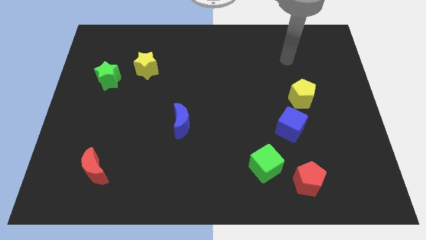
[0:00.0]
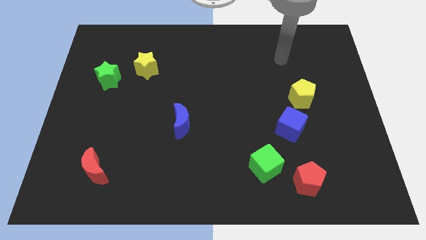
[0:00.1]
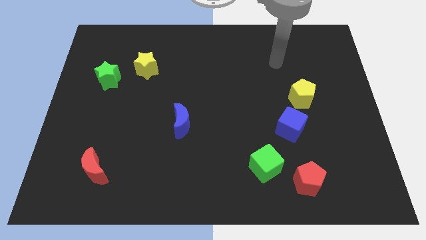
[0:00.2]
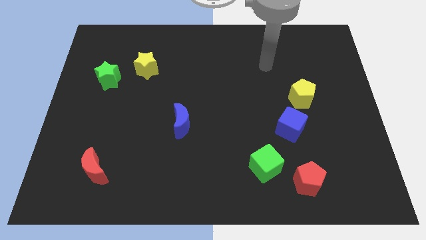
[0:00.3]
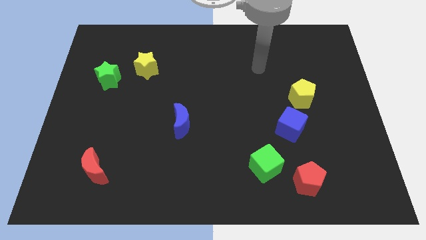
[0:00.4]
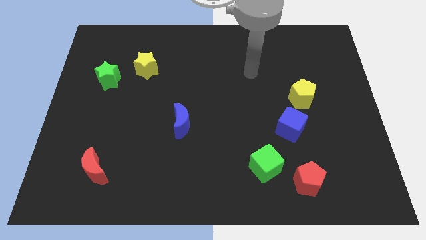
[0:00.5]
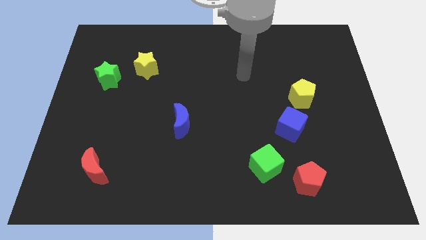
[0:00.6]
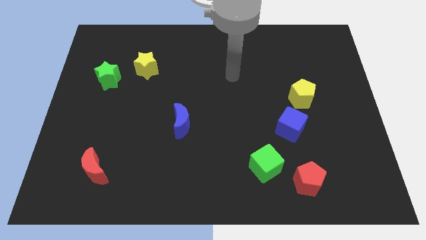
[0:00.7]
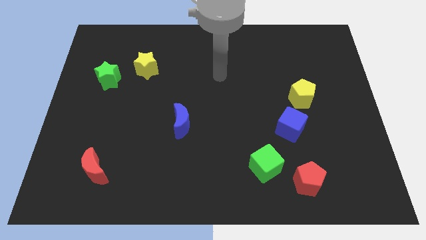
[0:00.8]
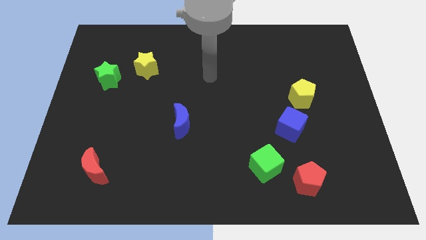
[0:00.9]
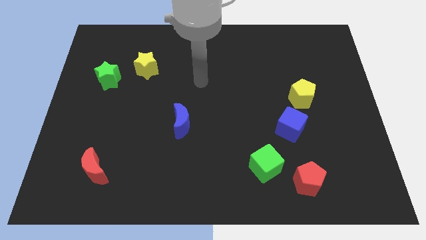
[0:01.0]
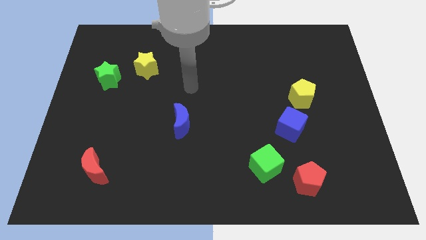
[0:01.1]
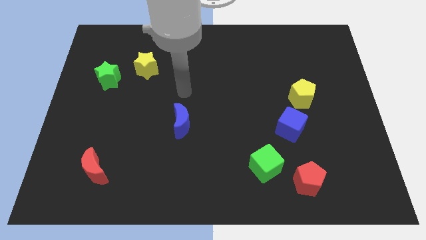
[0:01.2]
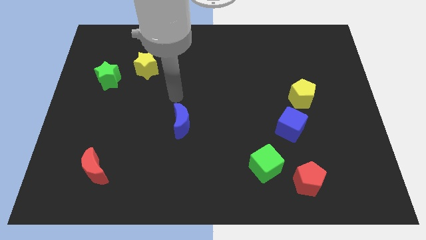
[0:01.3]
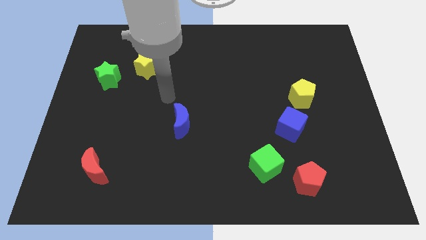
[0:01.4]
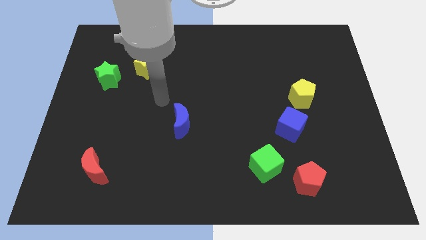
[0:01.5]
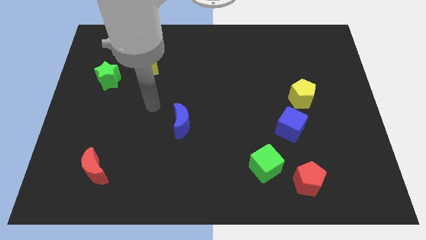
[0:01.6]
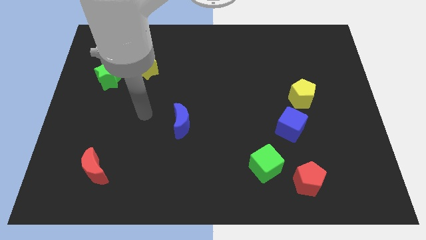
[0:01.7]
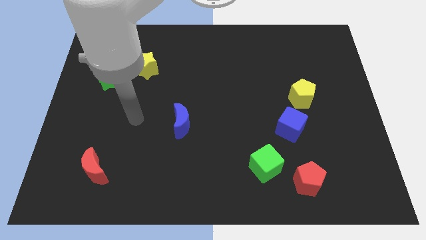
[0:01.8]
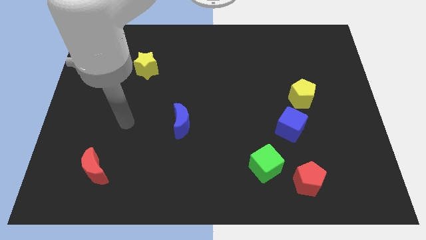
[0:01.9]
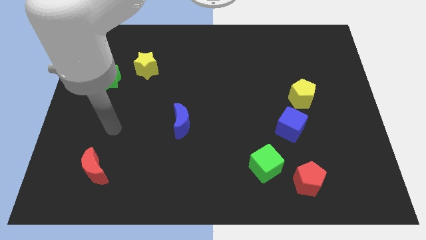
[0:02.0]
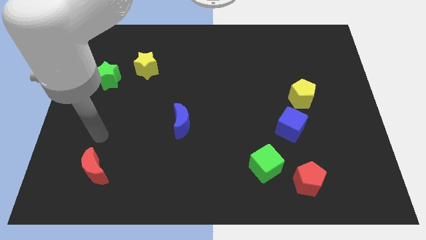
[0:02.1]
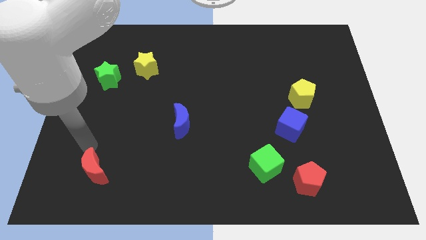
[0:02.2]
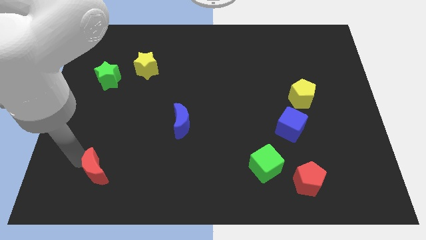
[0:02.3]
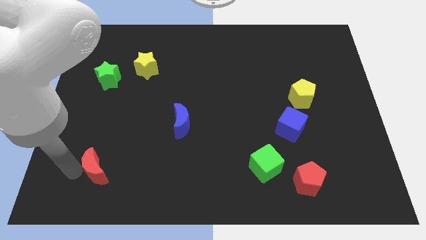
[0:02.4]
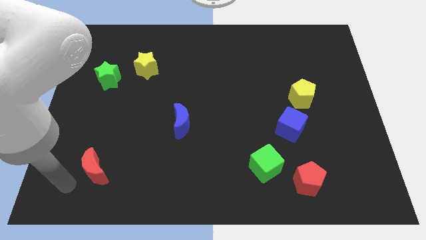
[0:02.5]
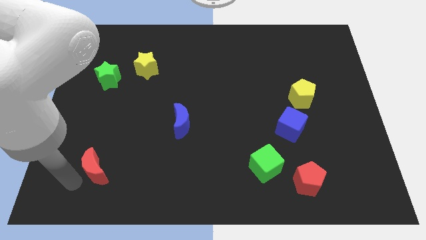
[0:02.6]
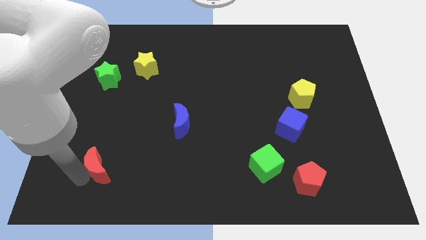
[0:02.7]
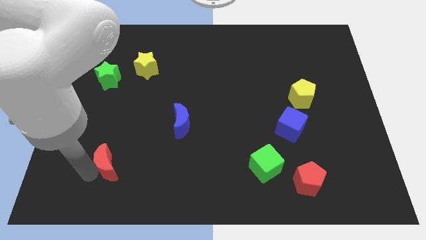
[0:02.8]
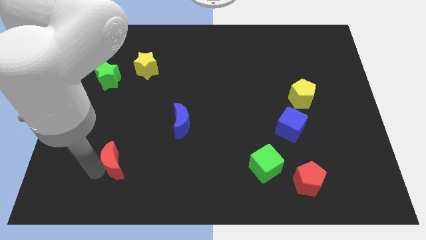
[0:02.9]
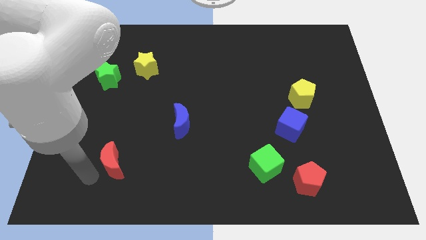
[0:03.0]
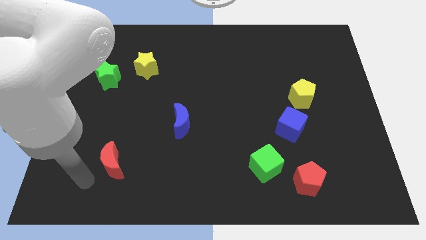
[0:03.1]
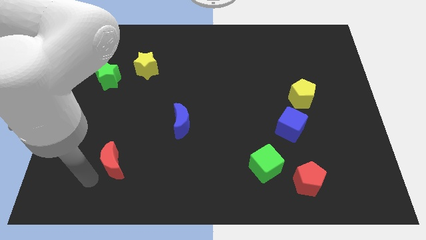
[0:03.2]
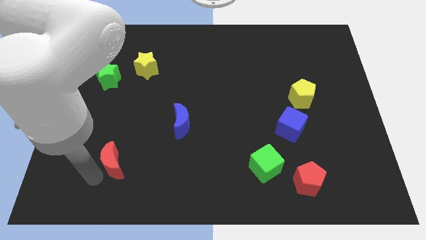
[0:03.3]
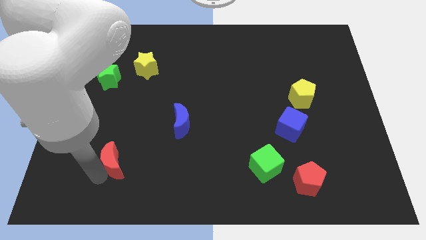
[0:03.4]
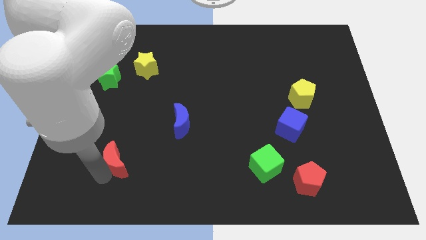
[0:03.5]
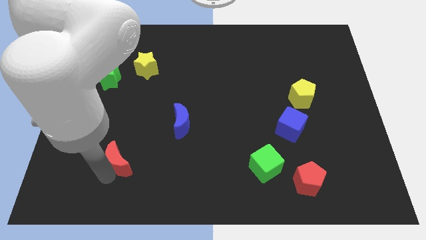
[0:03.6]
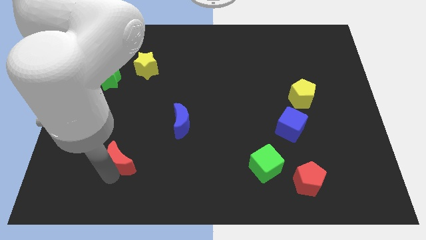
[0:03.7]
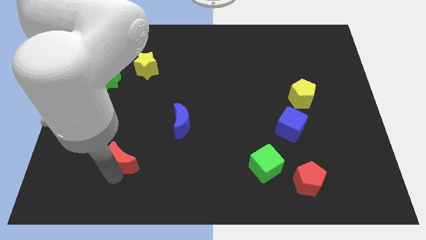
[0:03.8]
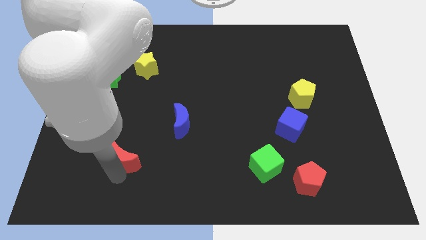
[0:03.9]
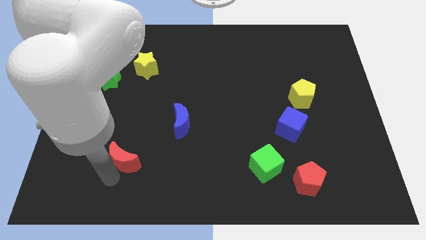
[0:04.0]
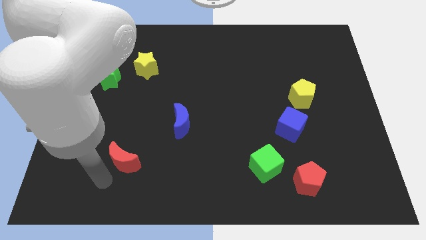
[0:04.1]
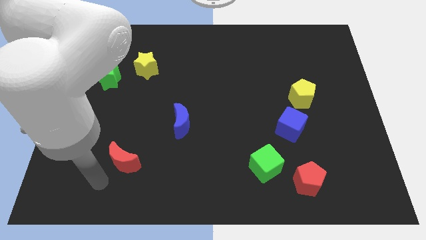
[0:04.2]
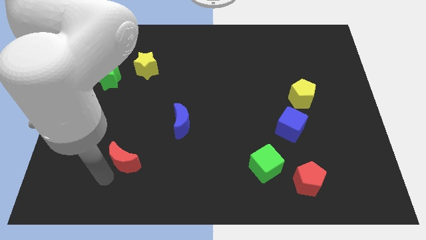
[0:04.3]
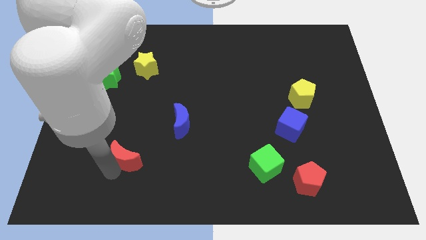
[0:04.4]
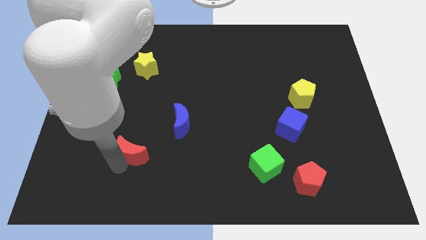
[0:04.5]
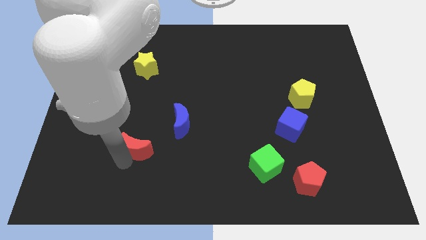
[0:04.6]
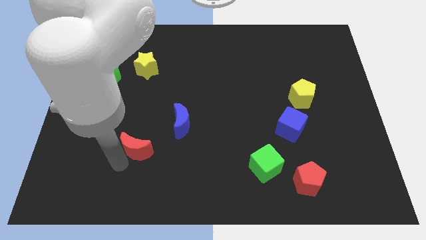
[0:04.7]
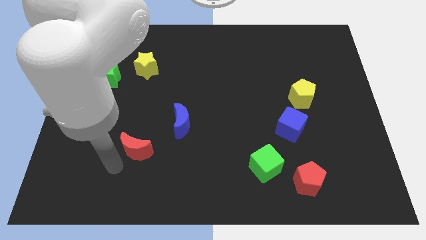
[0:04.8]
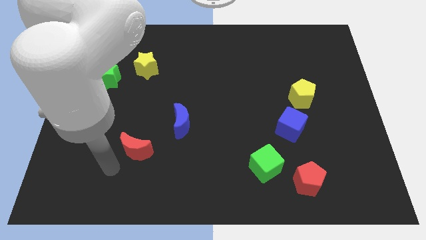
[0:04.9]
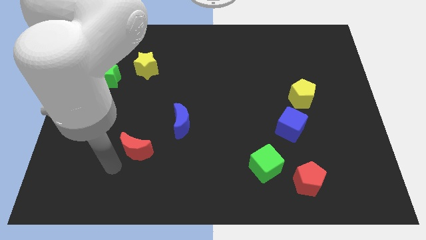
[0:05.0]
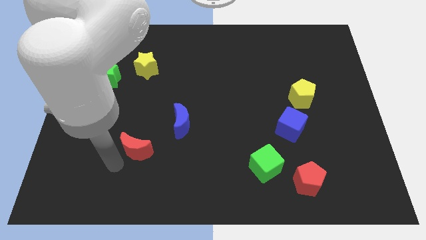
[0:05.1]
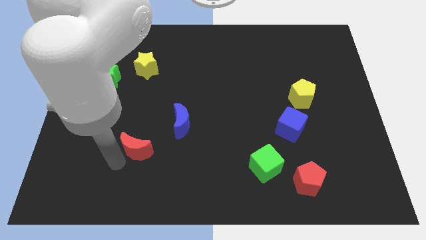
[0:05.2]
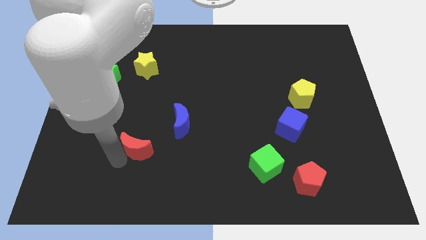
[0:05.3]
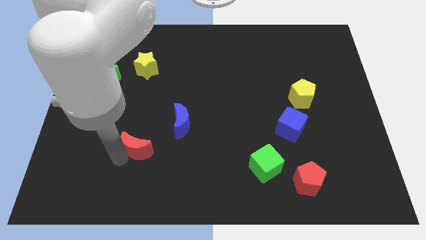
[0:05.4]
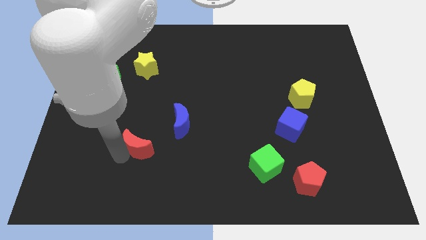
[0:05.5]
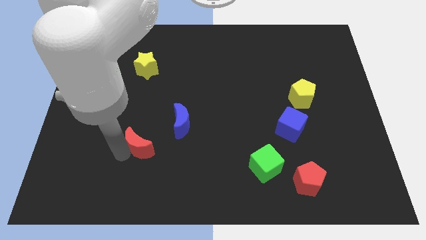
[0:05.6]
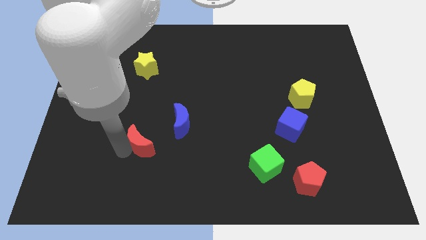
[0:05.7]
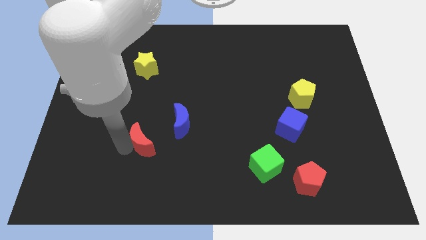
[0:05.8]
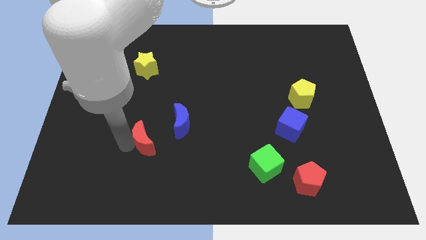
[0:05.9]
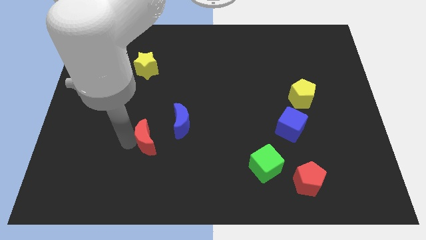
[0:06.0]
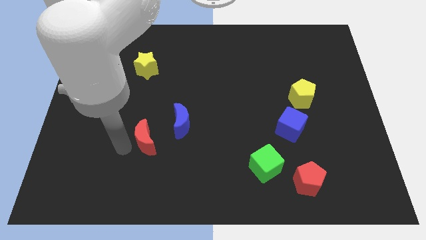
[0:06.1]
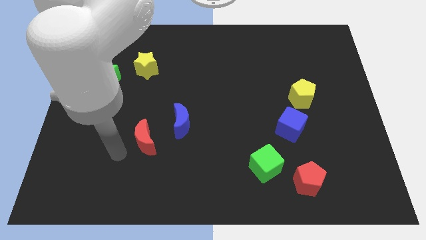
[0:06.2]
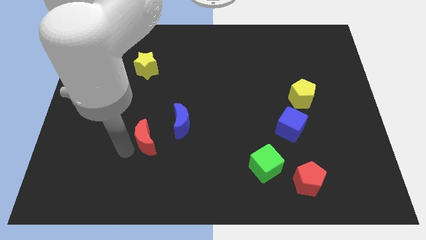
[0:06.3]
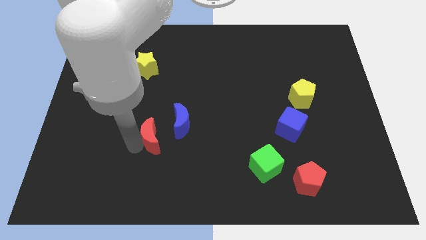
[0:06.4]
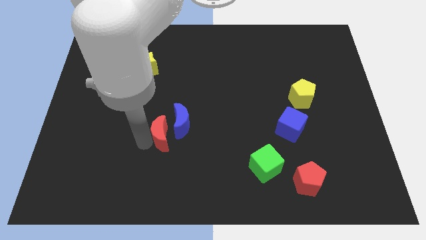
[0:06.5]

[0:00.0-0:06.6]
slide the red moon towards the blue moon
